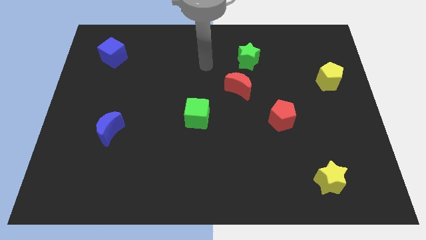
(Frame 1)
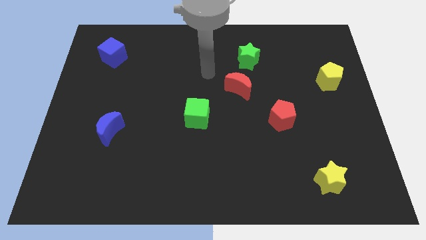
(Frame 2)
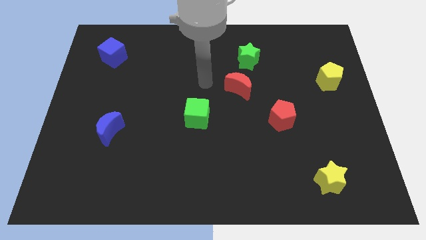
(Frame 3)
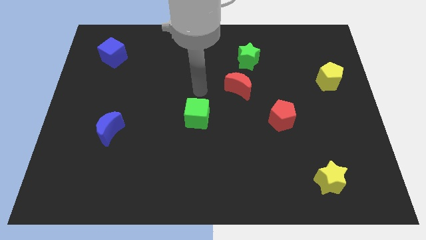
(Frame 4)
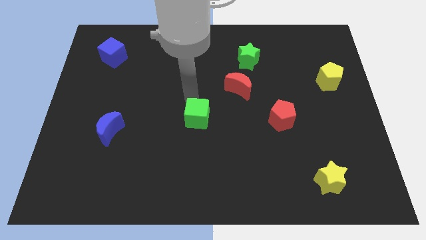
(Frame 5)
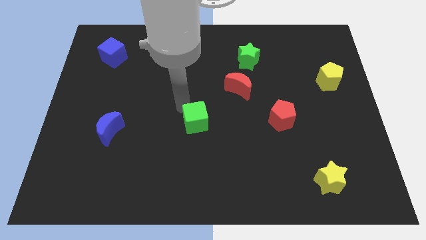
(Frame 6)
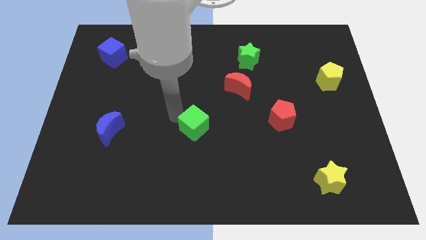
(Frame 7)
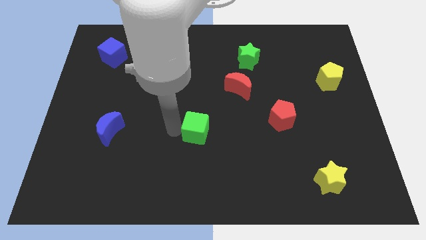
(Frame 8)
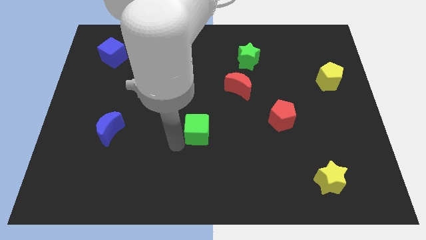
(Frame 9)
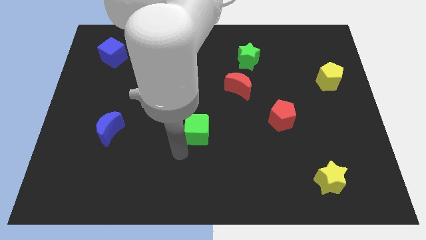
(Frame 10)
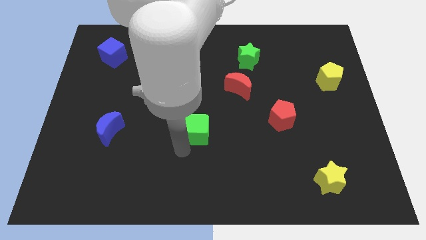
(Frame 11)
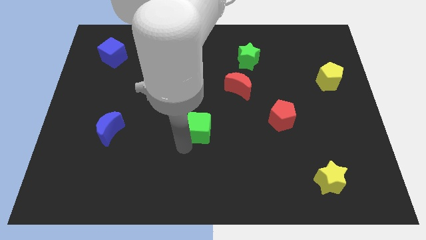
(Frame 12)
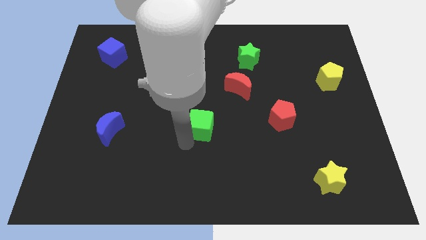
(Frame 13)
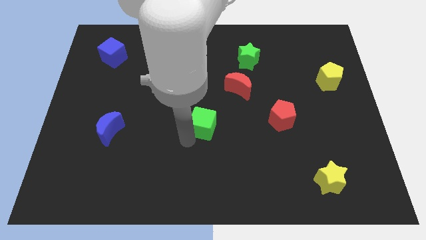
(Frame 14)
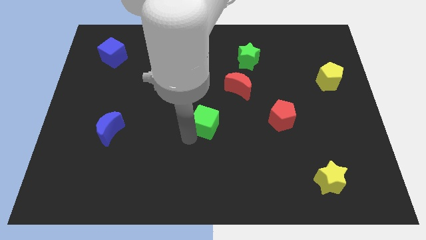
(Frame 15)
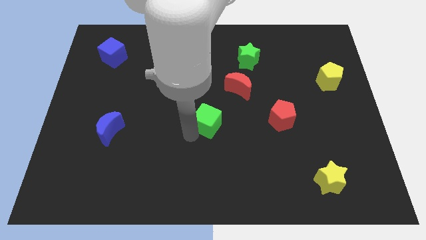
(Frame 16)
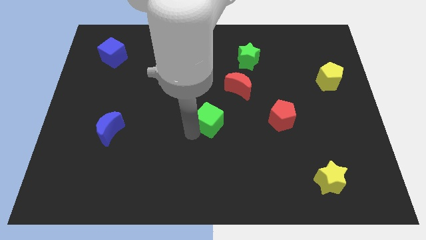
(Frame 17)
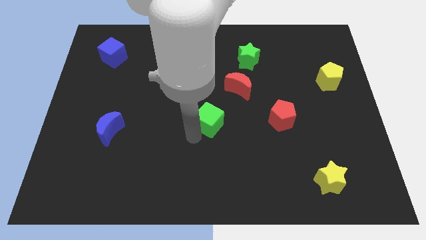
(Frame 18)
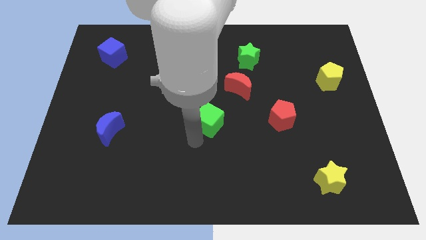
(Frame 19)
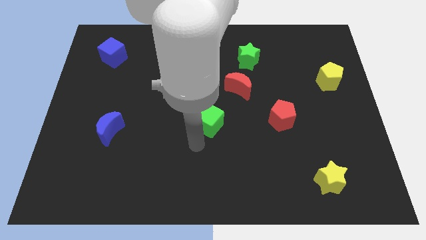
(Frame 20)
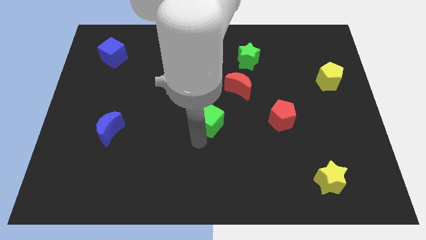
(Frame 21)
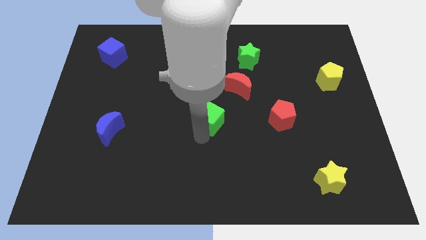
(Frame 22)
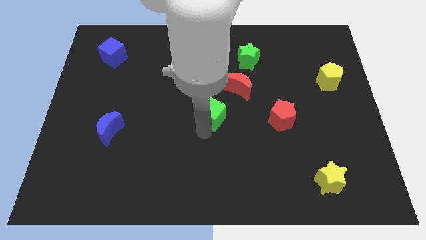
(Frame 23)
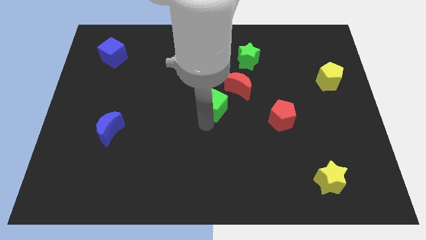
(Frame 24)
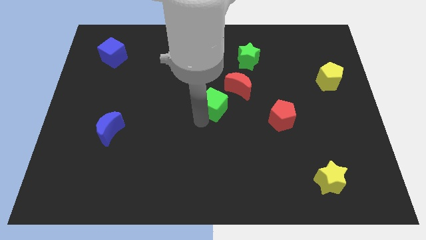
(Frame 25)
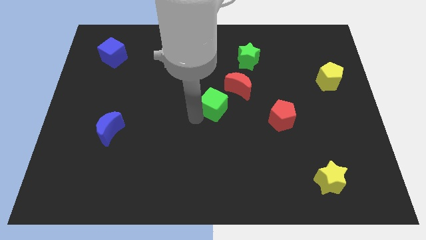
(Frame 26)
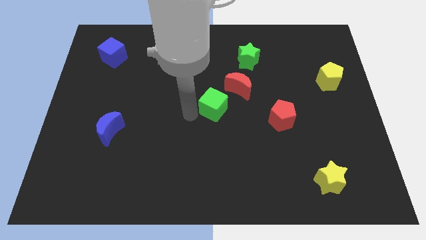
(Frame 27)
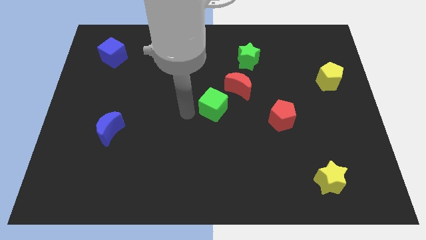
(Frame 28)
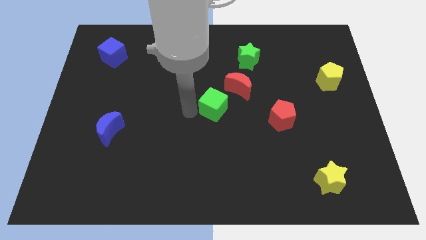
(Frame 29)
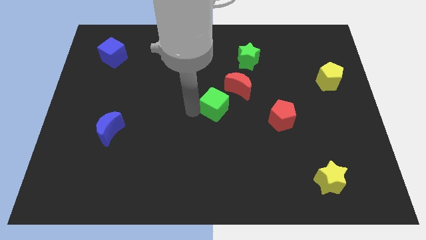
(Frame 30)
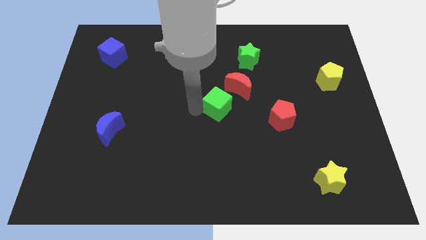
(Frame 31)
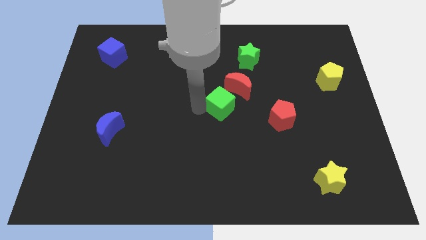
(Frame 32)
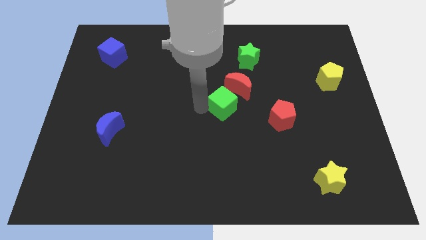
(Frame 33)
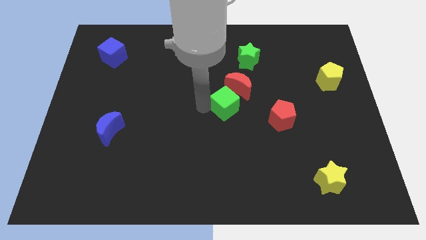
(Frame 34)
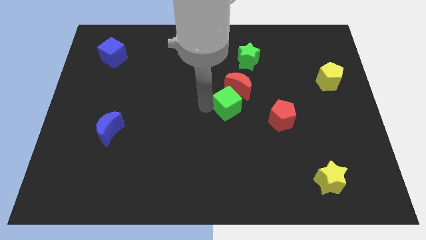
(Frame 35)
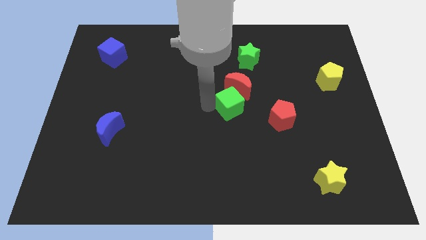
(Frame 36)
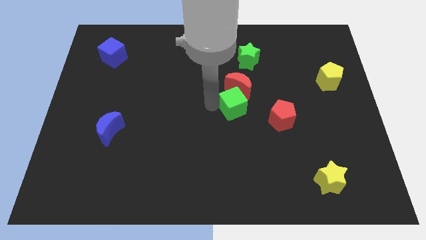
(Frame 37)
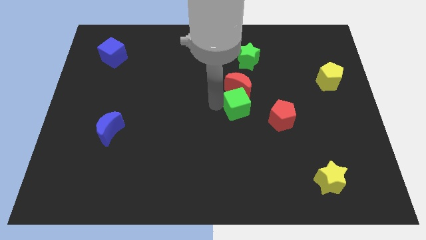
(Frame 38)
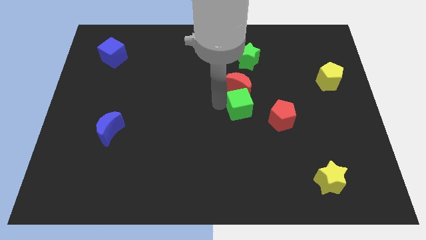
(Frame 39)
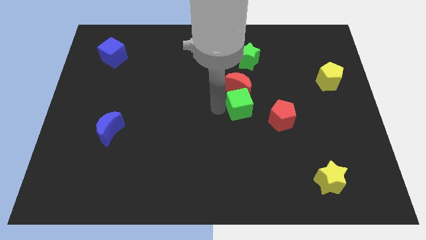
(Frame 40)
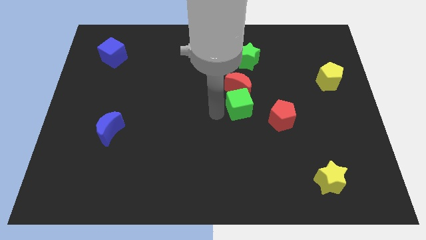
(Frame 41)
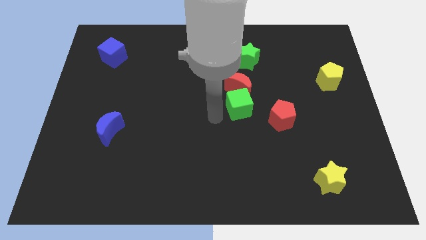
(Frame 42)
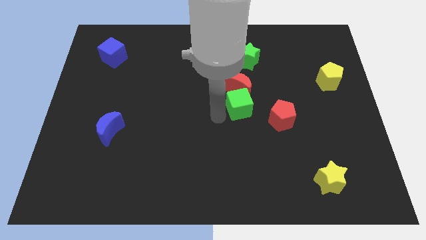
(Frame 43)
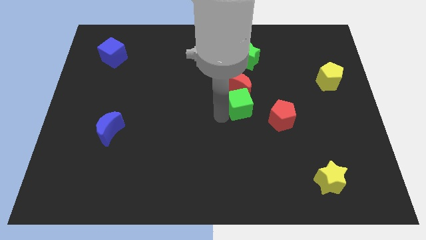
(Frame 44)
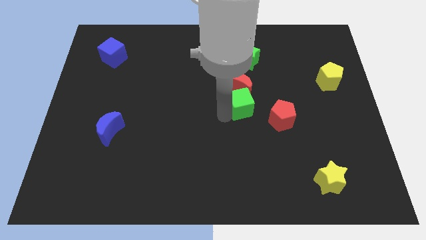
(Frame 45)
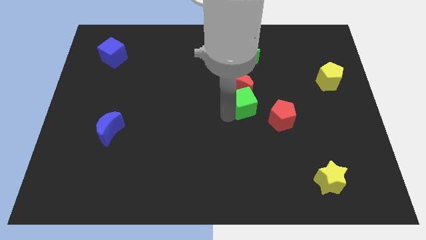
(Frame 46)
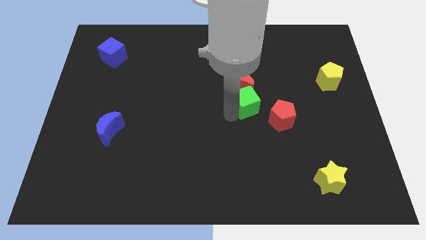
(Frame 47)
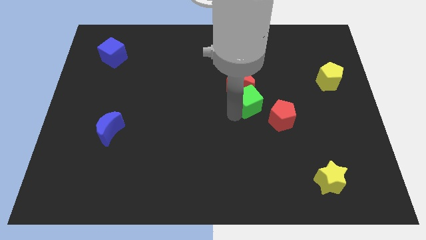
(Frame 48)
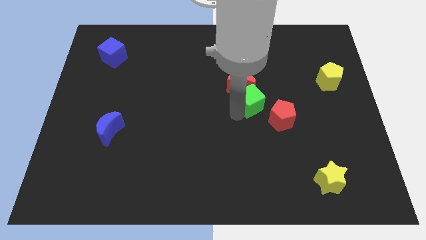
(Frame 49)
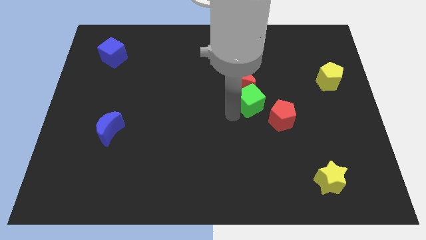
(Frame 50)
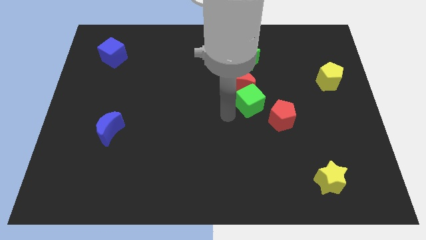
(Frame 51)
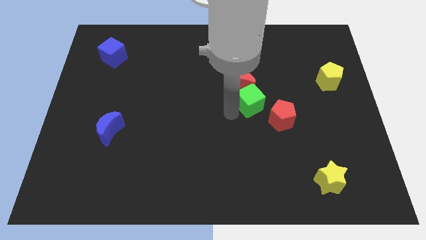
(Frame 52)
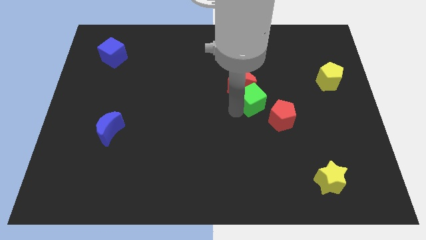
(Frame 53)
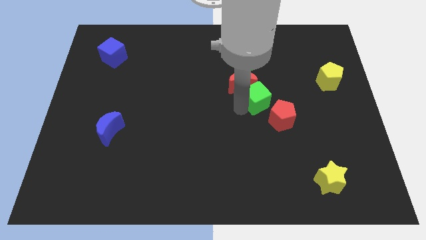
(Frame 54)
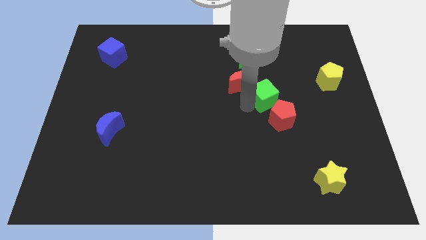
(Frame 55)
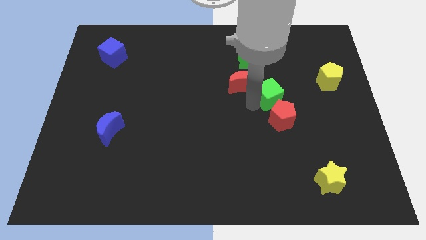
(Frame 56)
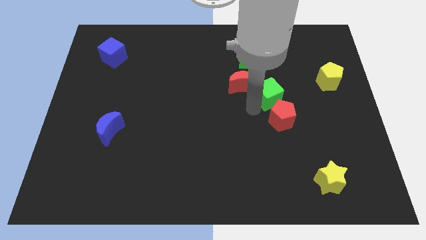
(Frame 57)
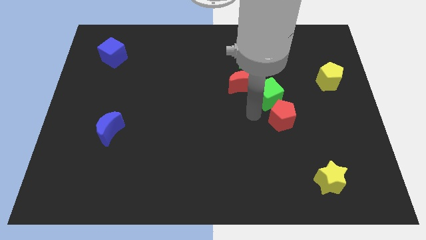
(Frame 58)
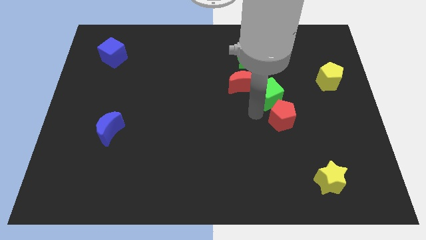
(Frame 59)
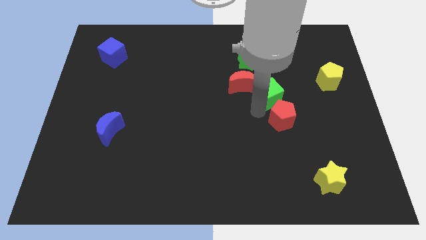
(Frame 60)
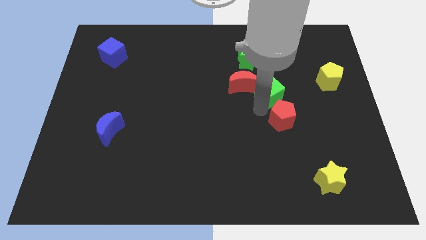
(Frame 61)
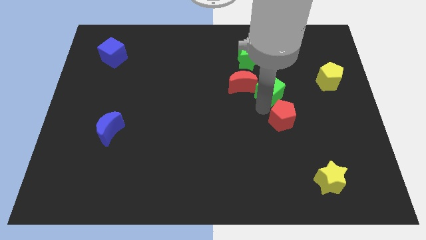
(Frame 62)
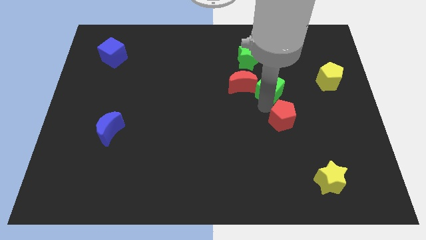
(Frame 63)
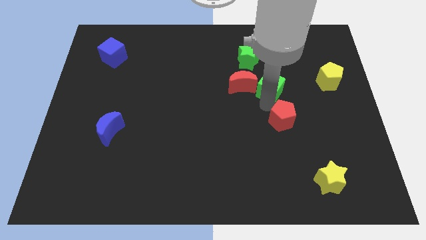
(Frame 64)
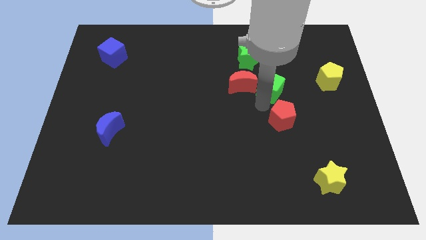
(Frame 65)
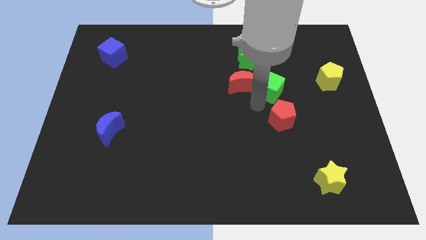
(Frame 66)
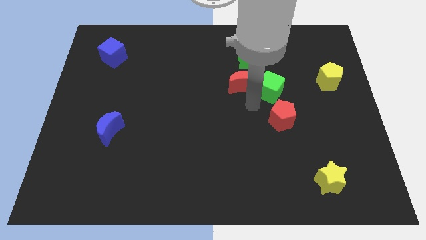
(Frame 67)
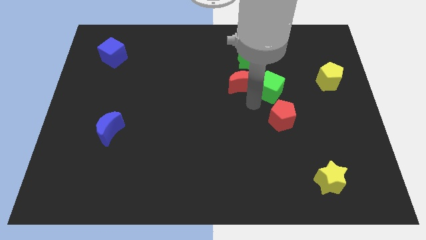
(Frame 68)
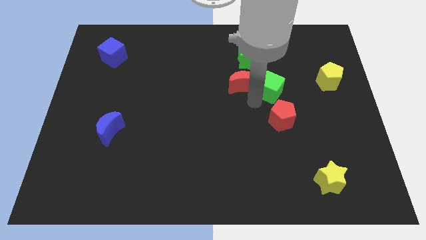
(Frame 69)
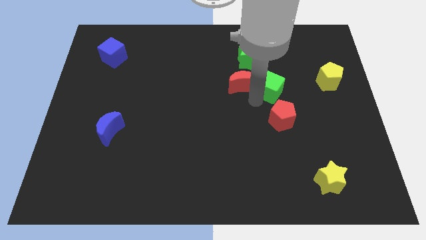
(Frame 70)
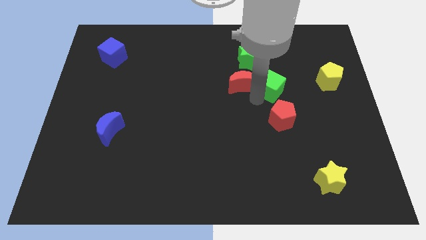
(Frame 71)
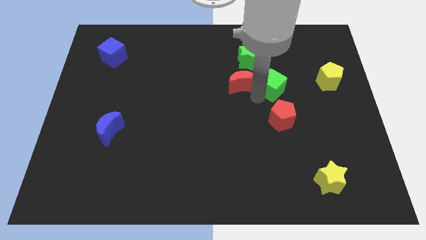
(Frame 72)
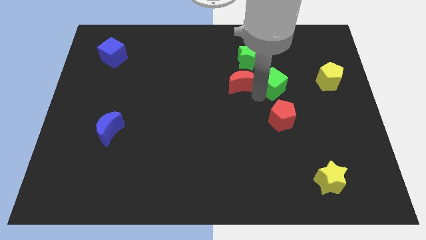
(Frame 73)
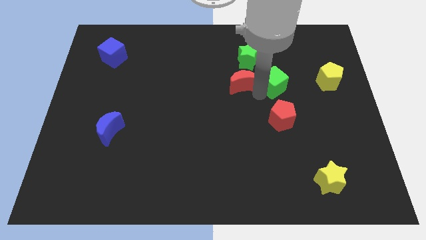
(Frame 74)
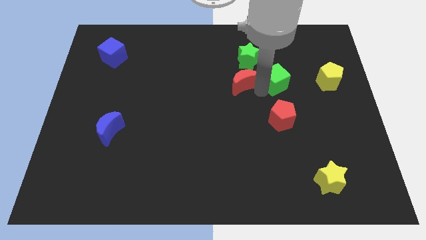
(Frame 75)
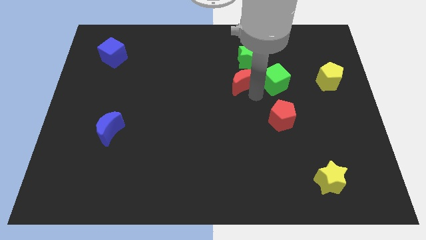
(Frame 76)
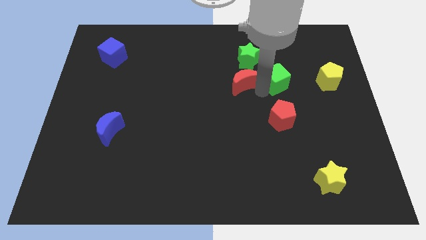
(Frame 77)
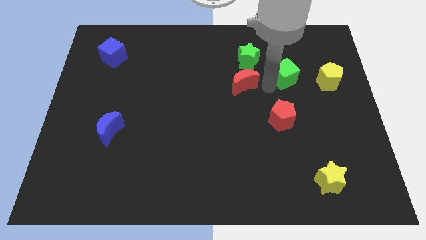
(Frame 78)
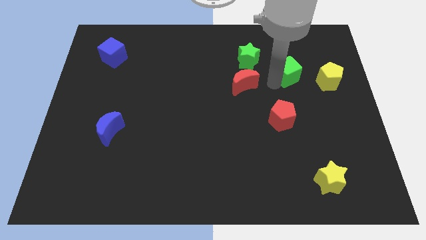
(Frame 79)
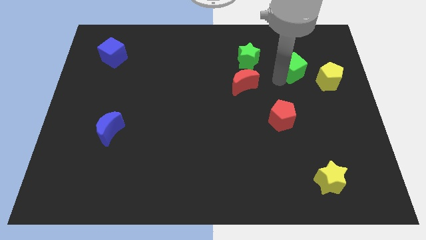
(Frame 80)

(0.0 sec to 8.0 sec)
slide the green cube diagonally up and to the left of the yellow pentagon

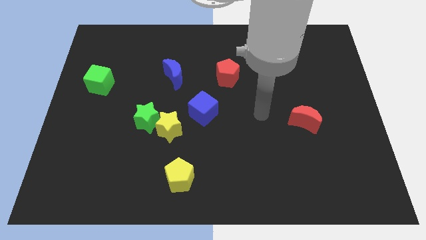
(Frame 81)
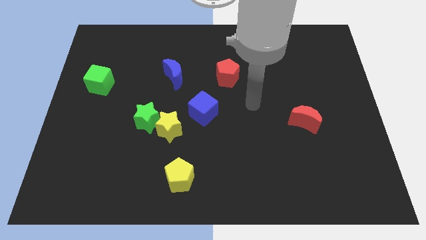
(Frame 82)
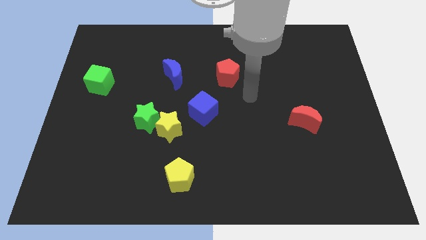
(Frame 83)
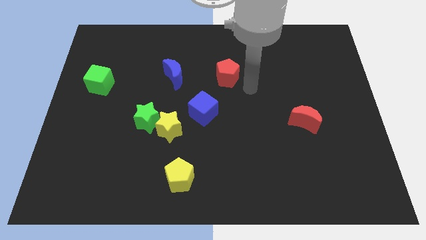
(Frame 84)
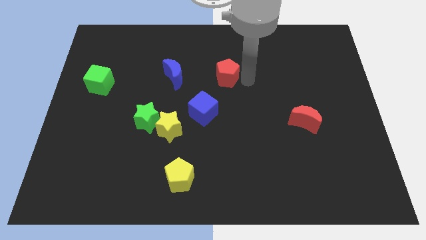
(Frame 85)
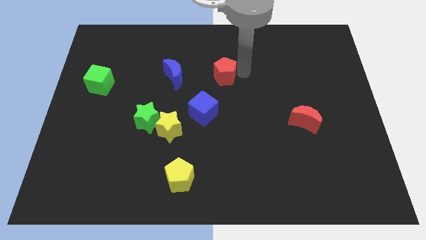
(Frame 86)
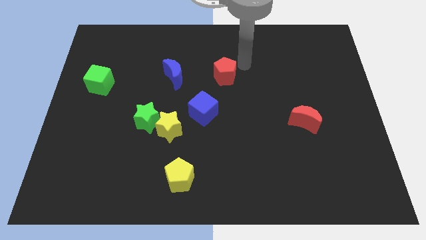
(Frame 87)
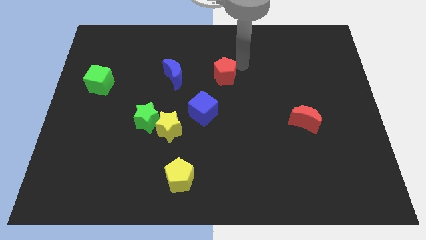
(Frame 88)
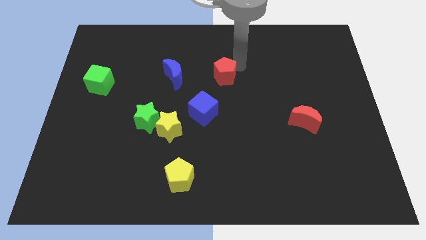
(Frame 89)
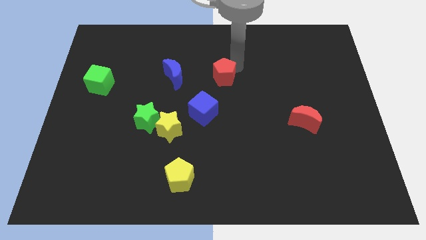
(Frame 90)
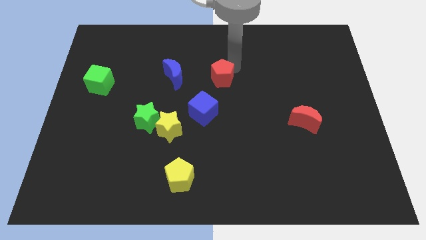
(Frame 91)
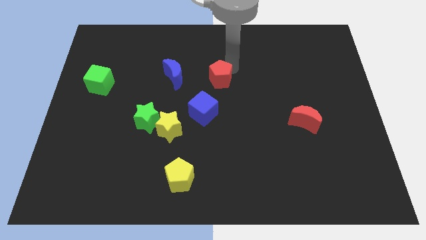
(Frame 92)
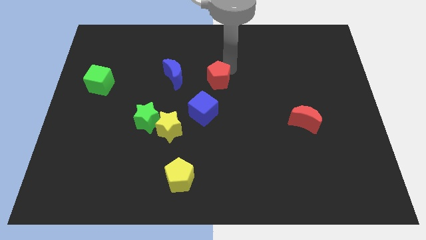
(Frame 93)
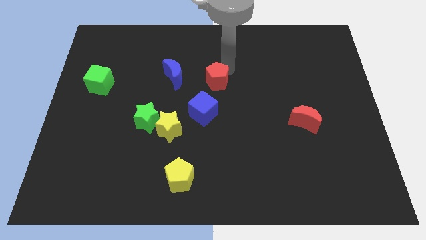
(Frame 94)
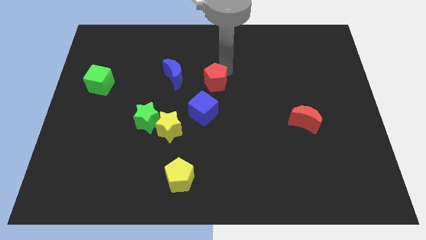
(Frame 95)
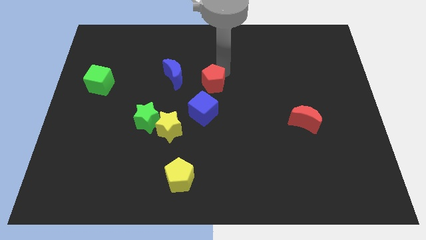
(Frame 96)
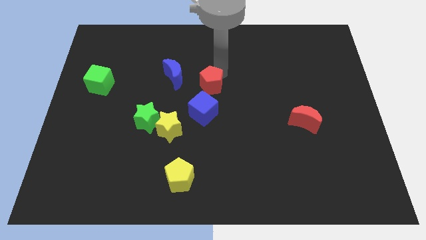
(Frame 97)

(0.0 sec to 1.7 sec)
slide the red pentagon to the bottom right side of the blue moon
